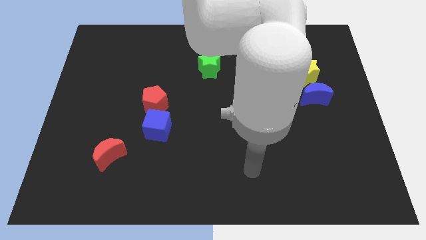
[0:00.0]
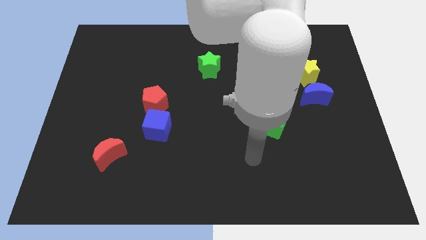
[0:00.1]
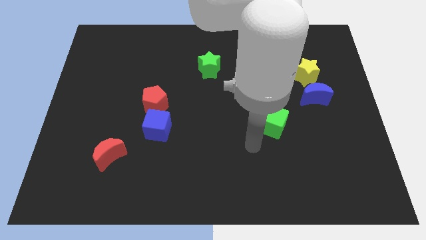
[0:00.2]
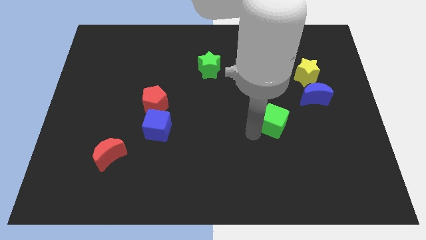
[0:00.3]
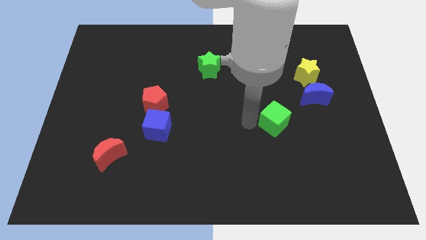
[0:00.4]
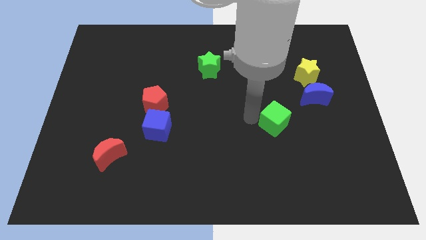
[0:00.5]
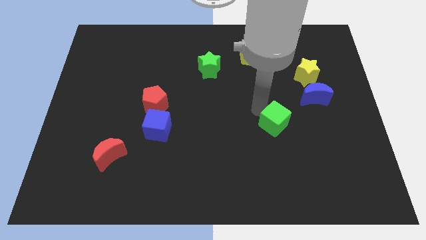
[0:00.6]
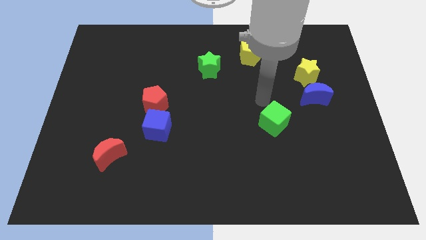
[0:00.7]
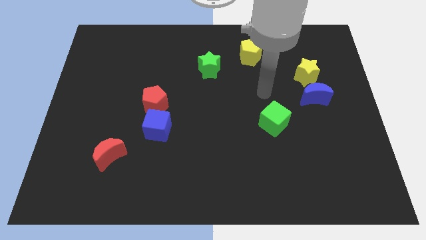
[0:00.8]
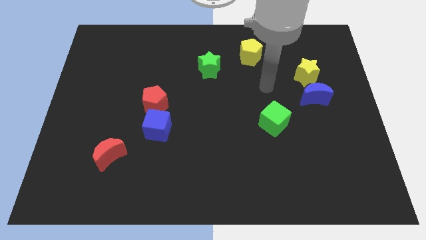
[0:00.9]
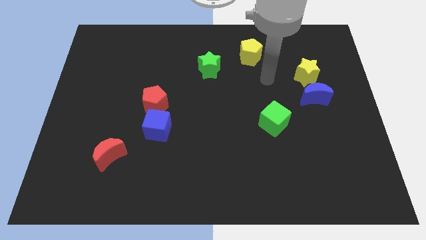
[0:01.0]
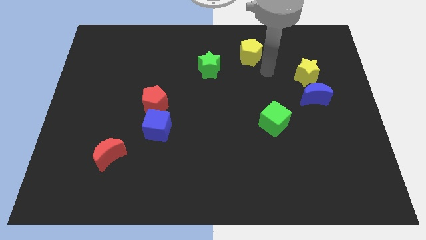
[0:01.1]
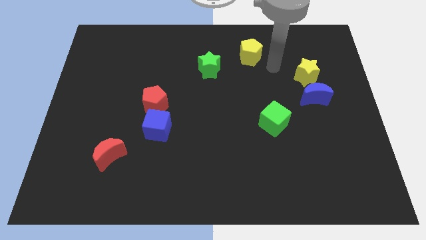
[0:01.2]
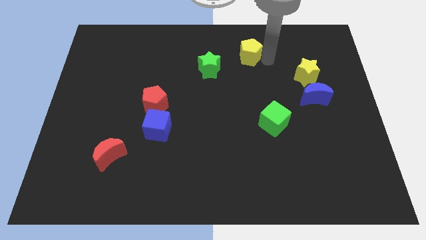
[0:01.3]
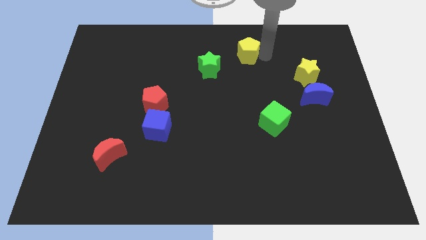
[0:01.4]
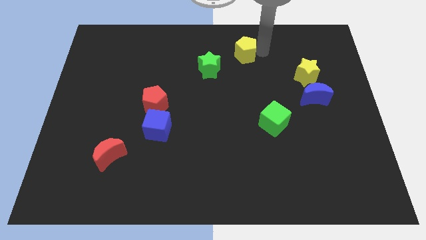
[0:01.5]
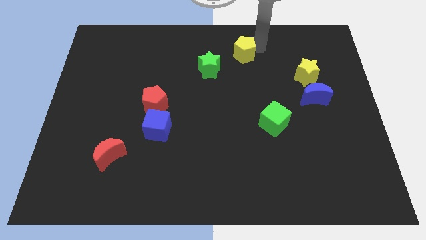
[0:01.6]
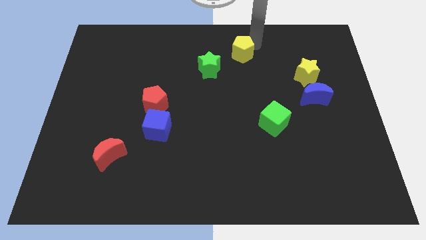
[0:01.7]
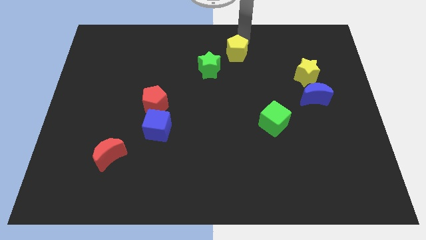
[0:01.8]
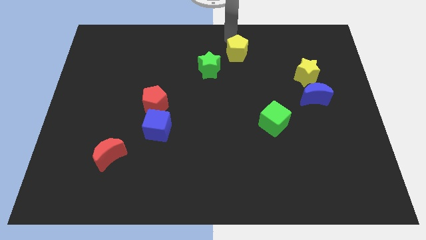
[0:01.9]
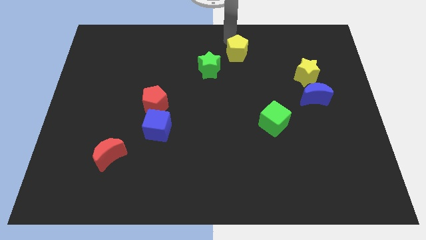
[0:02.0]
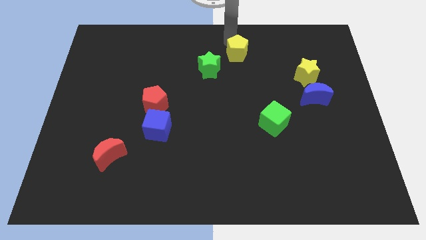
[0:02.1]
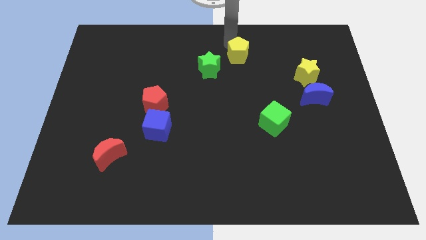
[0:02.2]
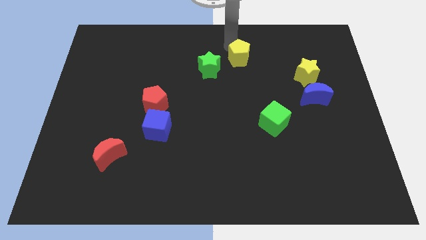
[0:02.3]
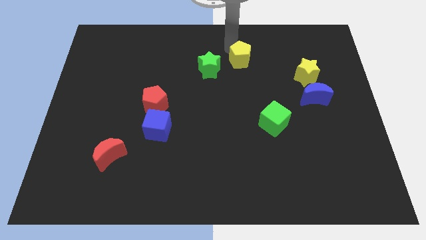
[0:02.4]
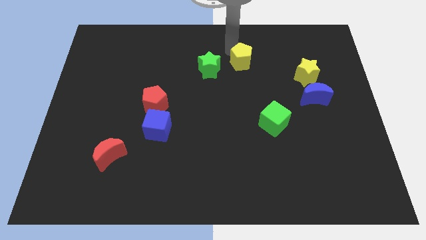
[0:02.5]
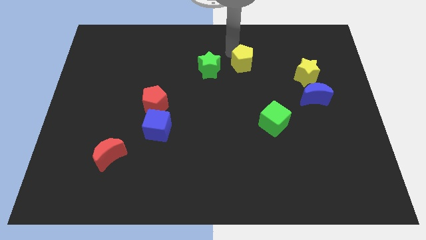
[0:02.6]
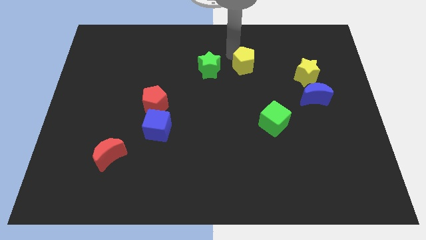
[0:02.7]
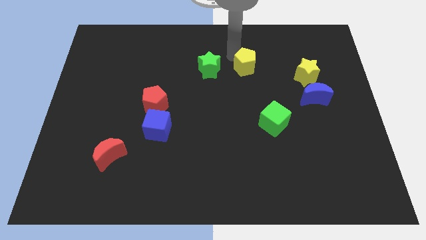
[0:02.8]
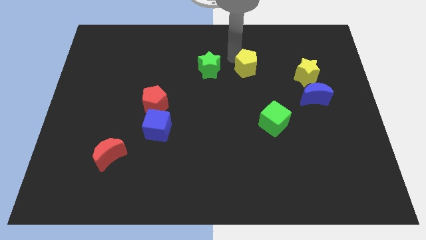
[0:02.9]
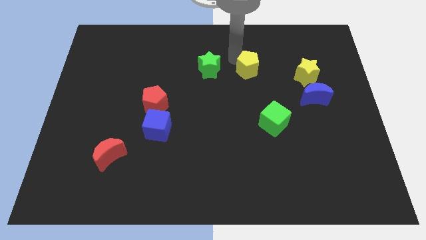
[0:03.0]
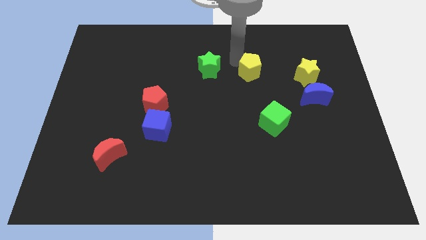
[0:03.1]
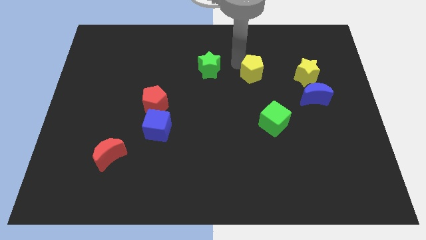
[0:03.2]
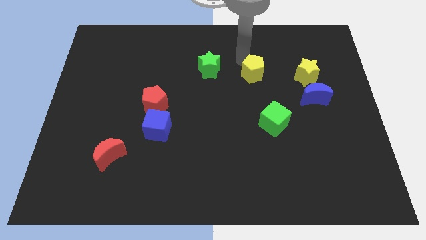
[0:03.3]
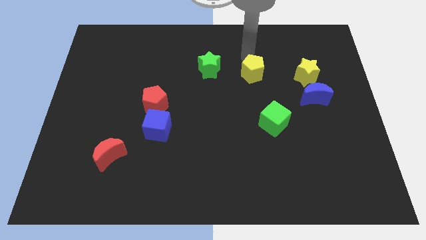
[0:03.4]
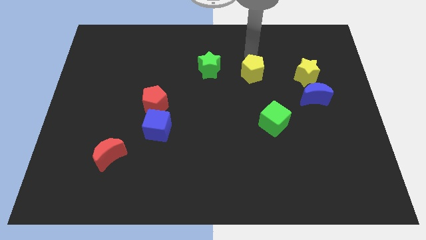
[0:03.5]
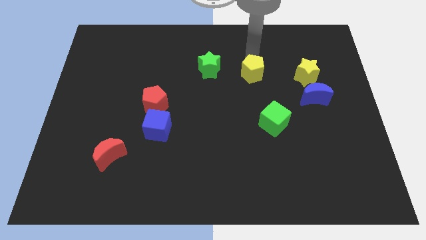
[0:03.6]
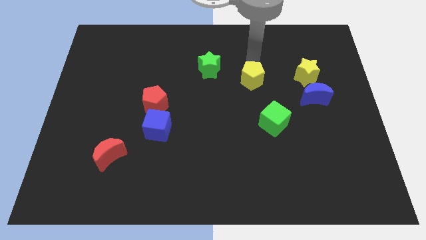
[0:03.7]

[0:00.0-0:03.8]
slide the yellow pentagon downwards a little bit

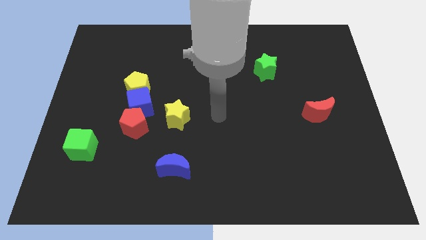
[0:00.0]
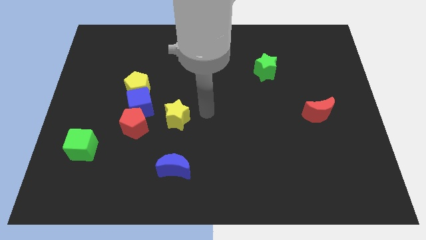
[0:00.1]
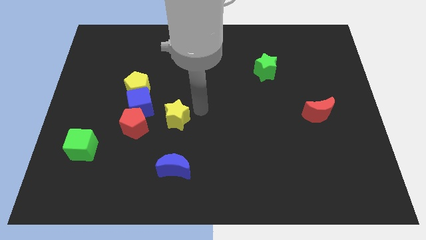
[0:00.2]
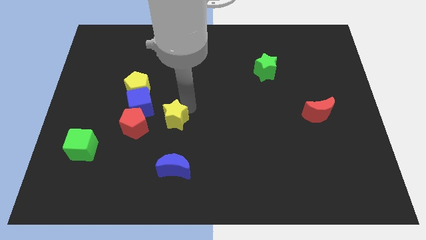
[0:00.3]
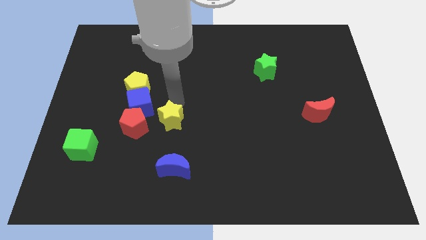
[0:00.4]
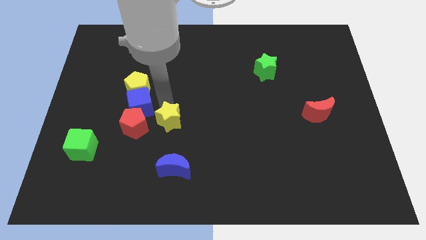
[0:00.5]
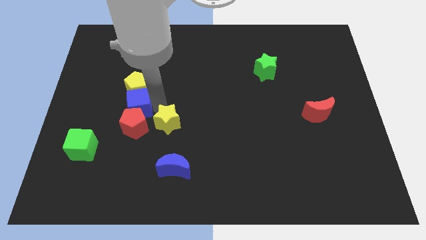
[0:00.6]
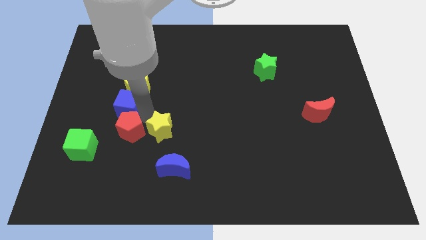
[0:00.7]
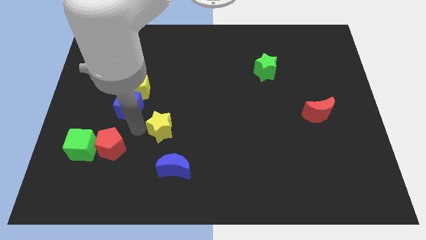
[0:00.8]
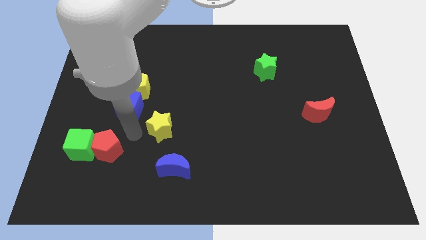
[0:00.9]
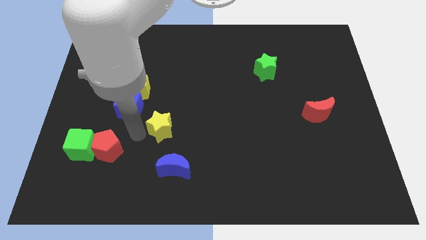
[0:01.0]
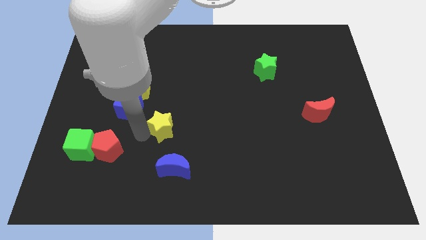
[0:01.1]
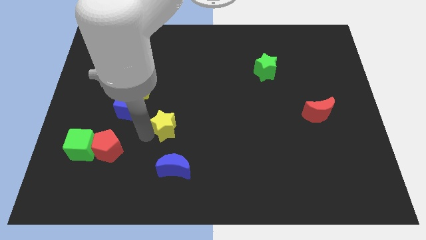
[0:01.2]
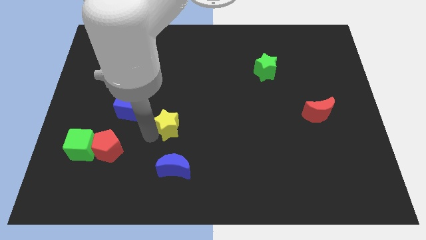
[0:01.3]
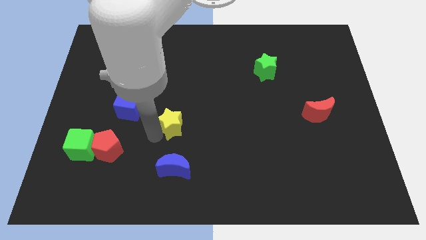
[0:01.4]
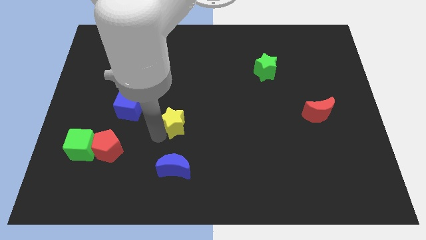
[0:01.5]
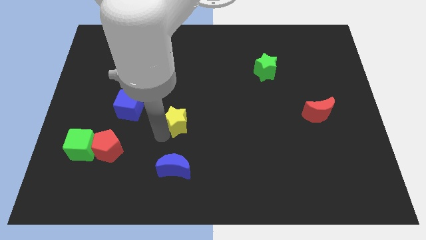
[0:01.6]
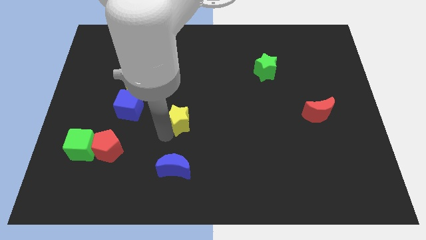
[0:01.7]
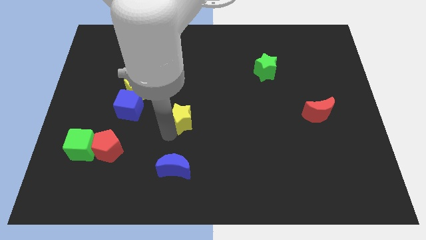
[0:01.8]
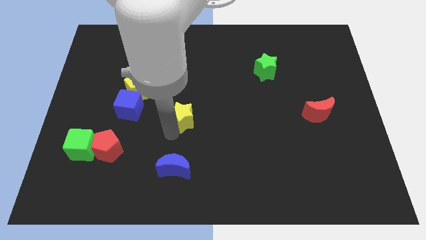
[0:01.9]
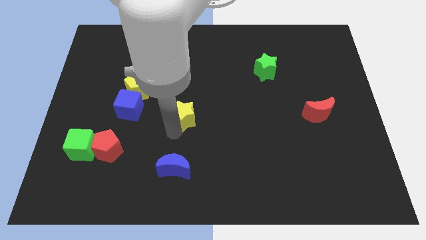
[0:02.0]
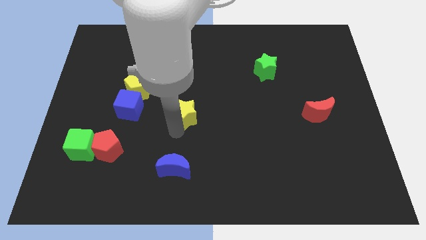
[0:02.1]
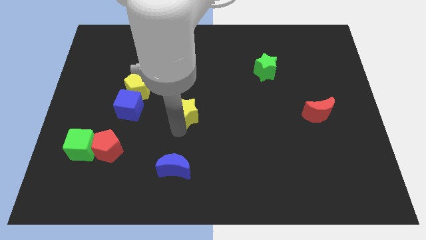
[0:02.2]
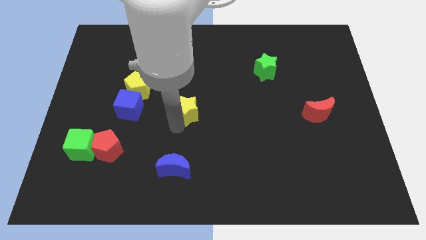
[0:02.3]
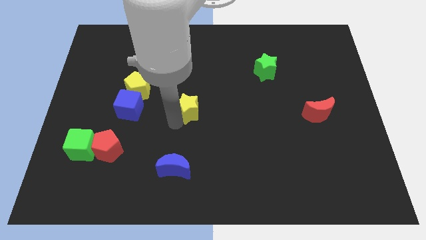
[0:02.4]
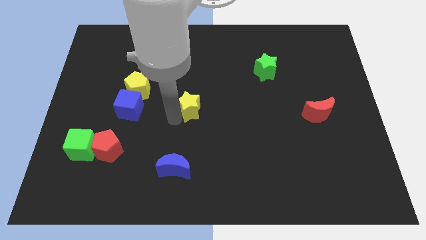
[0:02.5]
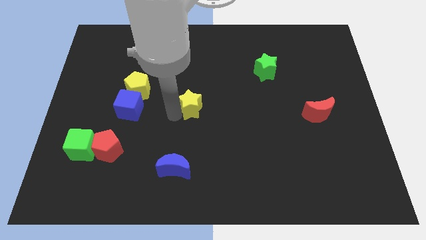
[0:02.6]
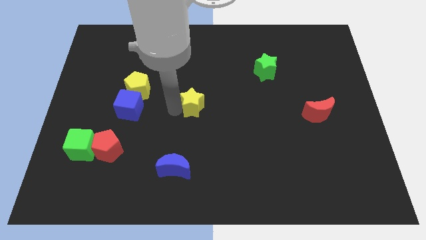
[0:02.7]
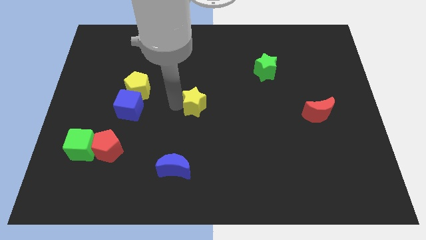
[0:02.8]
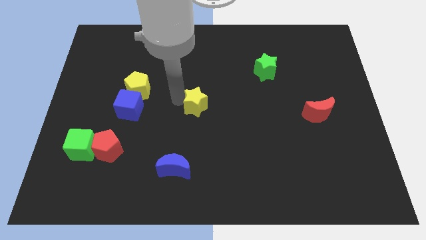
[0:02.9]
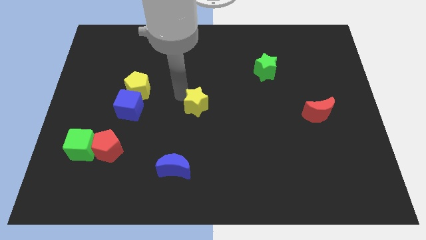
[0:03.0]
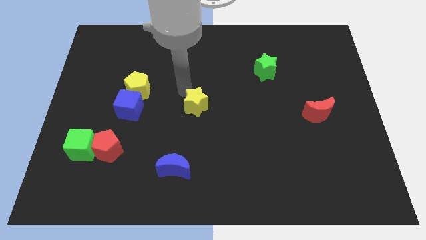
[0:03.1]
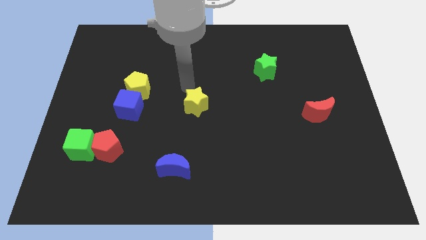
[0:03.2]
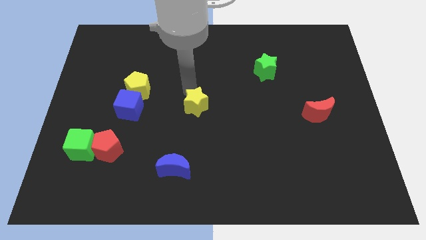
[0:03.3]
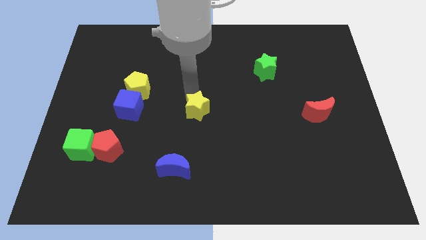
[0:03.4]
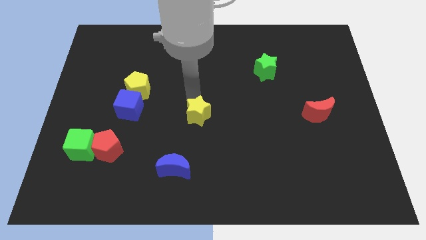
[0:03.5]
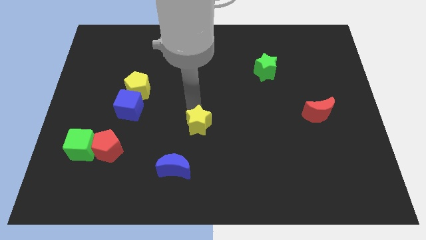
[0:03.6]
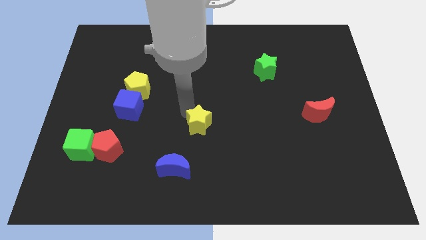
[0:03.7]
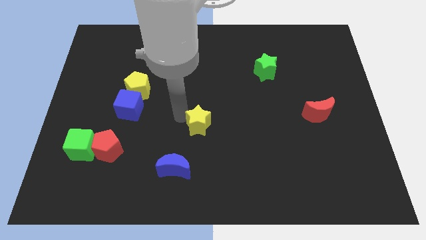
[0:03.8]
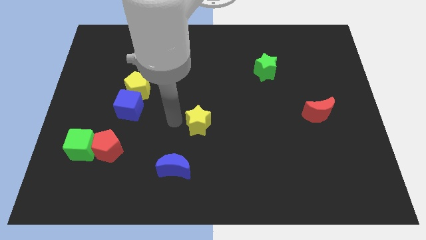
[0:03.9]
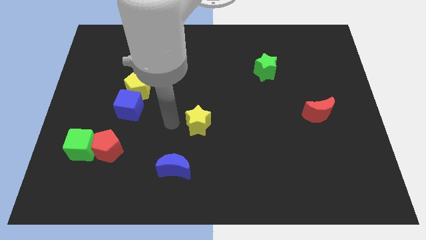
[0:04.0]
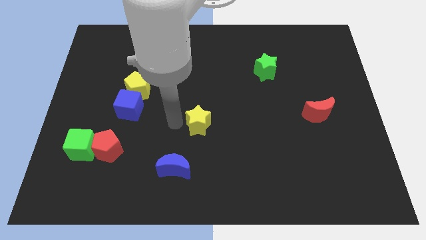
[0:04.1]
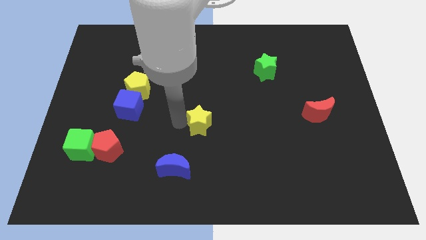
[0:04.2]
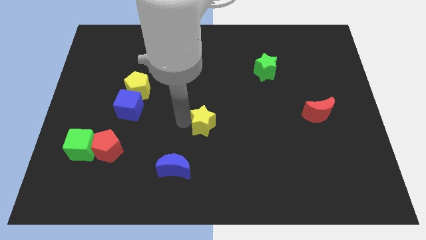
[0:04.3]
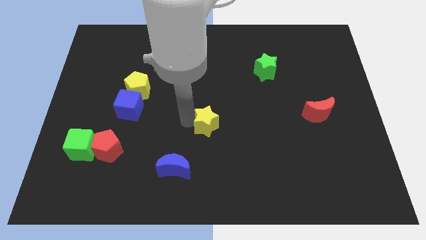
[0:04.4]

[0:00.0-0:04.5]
slide the yellow star to the right slightly
